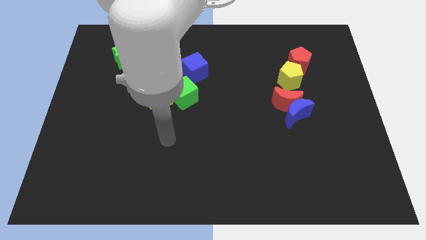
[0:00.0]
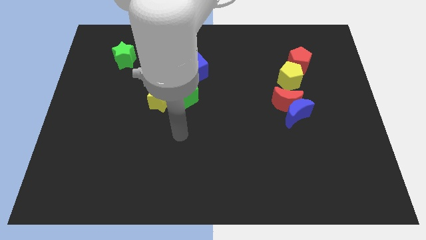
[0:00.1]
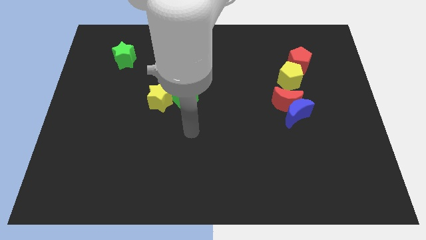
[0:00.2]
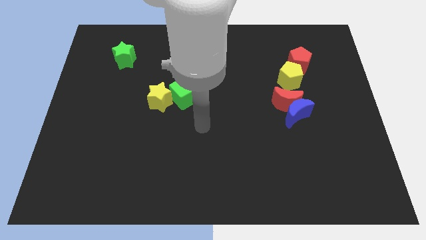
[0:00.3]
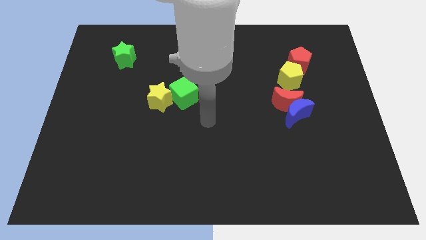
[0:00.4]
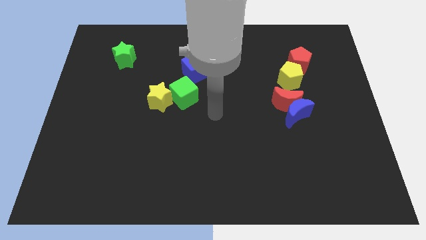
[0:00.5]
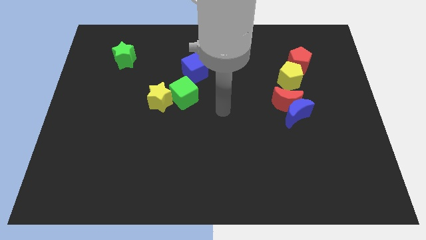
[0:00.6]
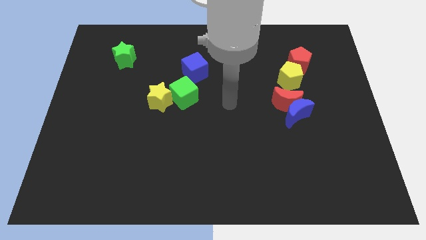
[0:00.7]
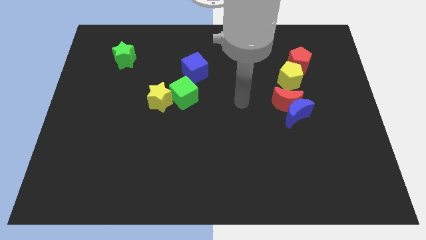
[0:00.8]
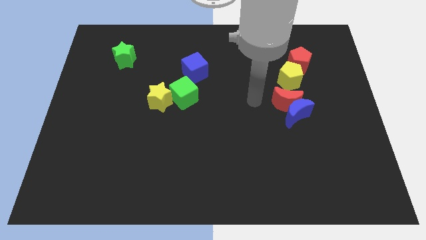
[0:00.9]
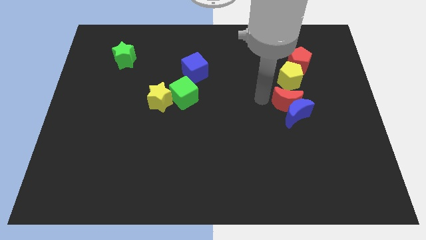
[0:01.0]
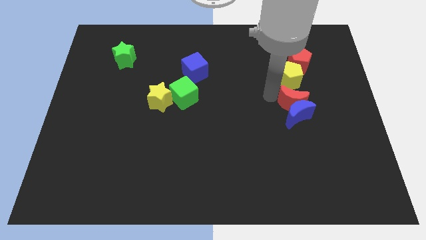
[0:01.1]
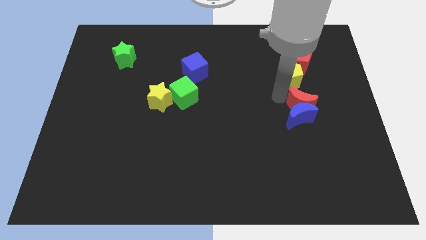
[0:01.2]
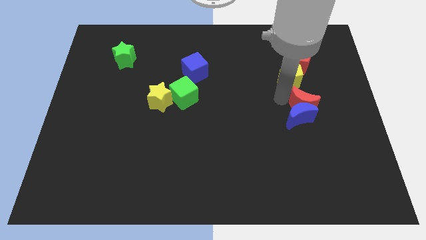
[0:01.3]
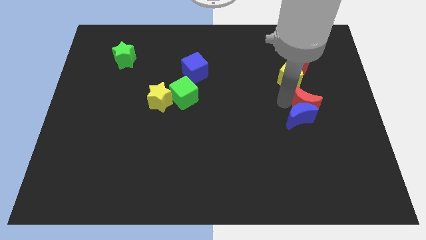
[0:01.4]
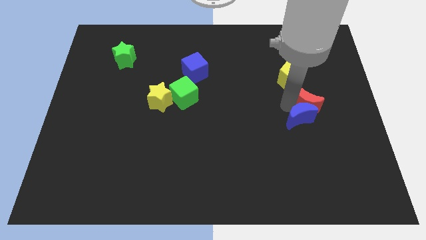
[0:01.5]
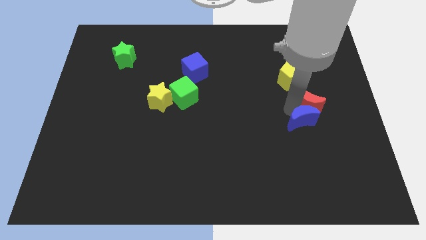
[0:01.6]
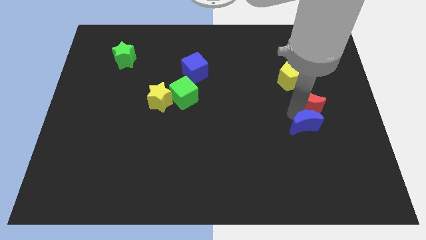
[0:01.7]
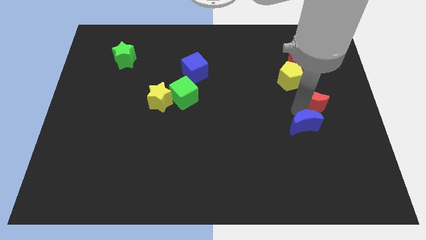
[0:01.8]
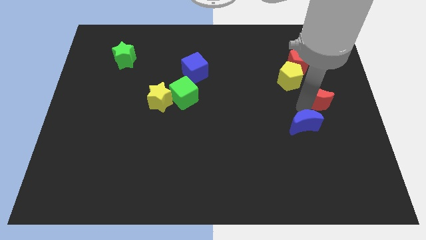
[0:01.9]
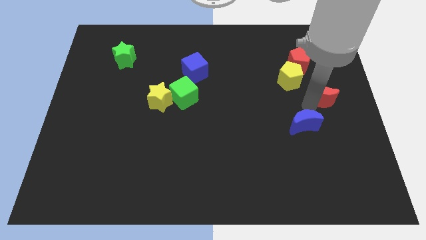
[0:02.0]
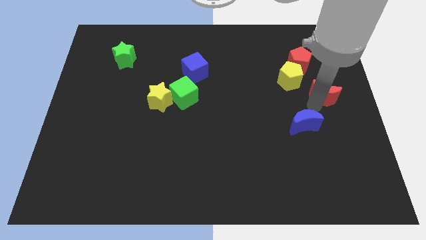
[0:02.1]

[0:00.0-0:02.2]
pull the blue moon apart from the red moon

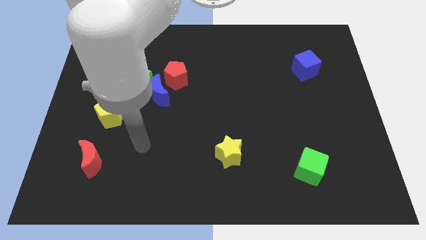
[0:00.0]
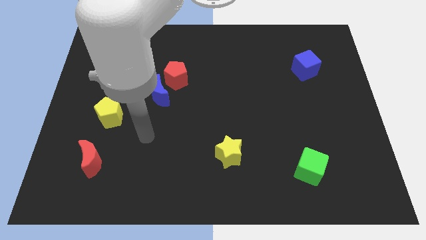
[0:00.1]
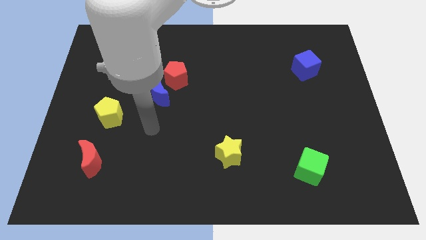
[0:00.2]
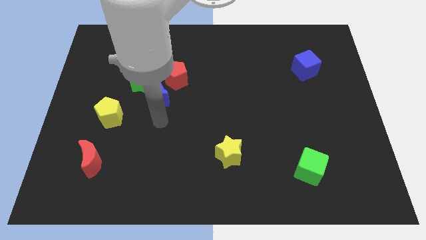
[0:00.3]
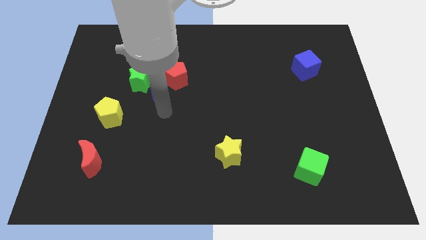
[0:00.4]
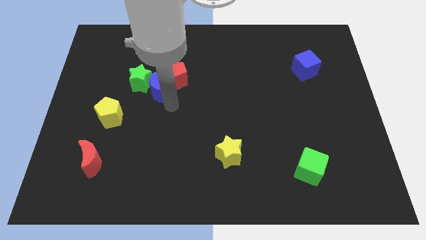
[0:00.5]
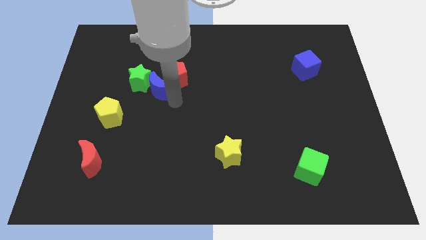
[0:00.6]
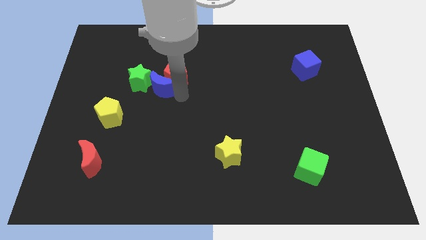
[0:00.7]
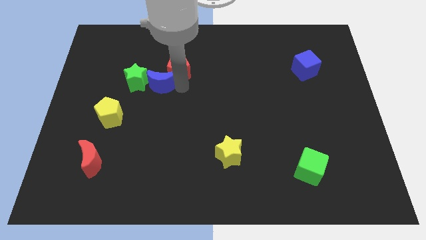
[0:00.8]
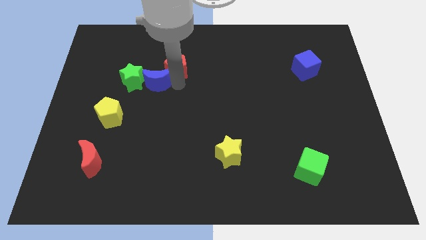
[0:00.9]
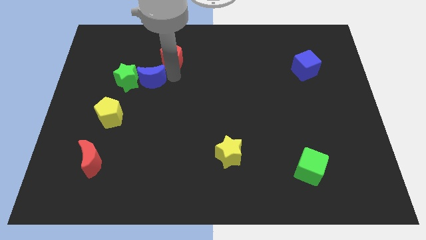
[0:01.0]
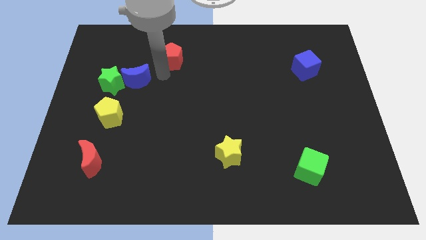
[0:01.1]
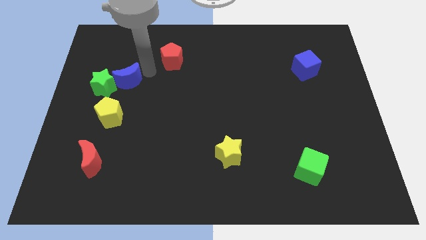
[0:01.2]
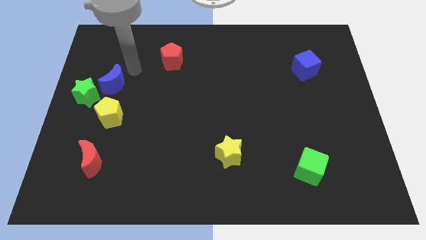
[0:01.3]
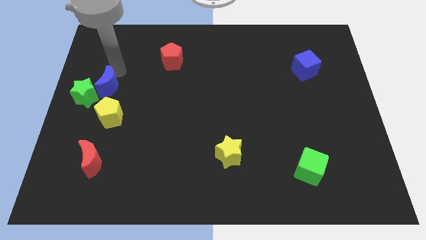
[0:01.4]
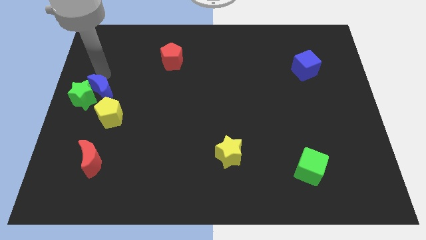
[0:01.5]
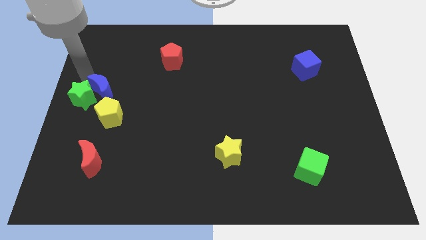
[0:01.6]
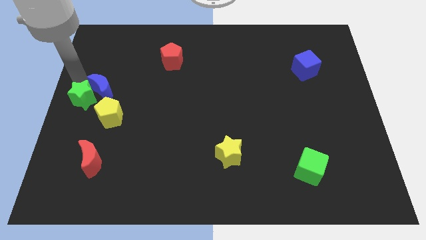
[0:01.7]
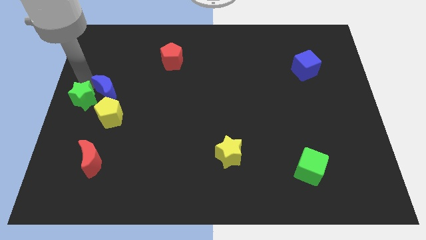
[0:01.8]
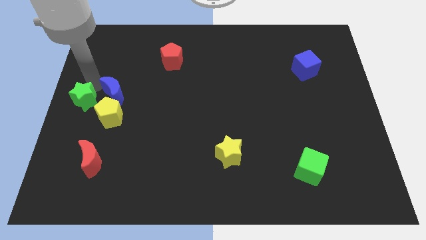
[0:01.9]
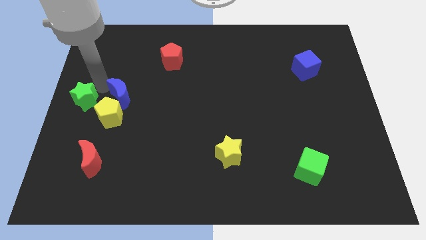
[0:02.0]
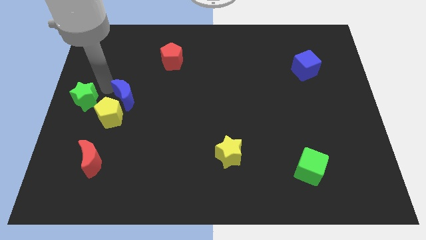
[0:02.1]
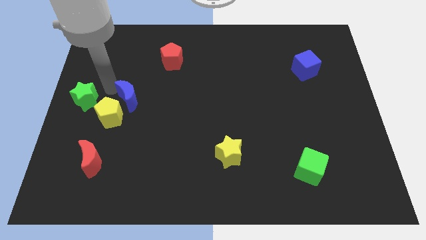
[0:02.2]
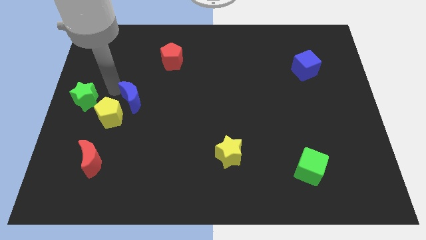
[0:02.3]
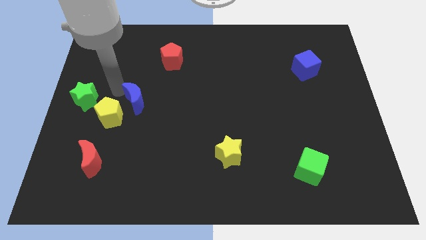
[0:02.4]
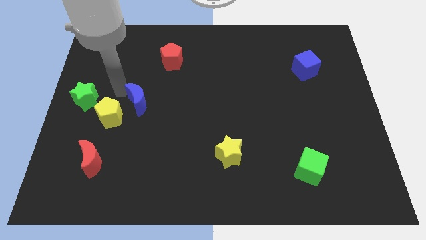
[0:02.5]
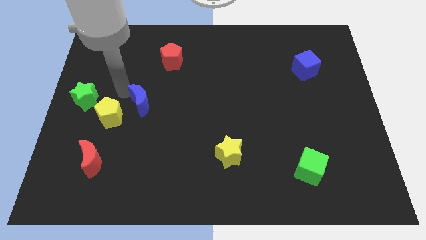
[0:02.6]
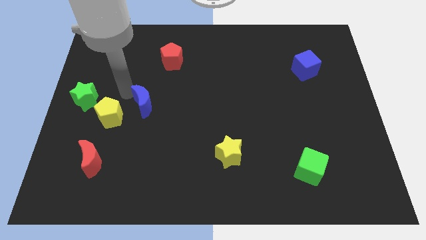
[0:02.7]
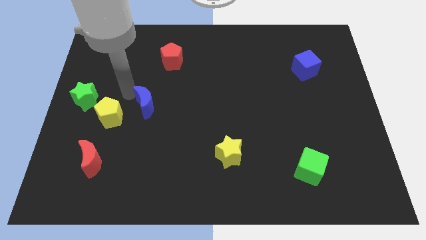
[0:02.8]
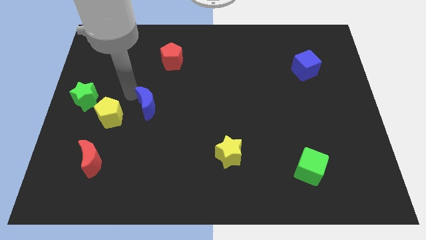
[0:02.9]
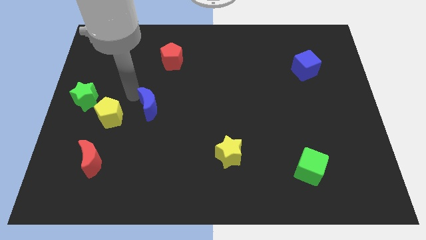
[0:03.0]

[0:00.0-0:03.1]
pull the blue moon apart from the green star and red pentagon

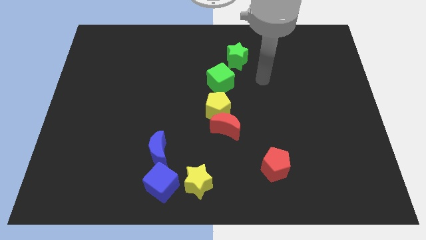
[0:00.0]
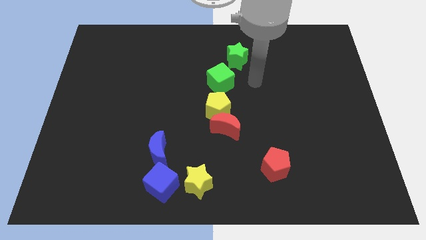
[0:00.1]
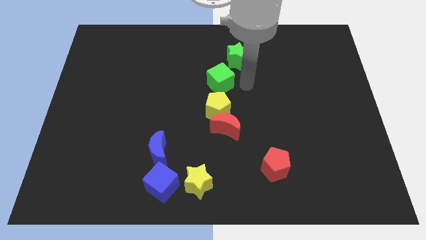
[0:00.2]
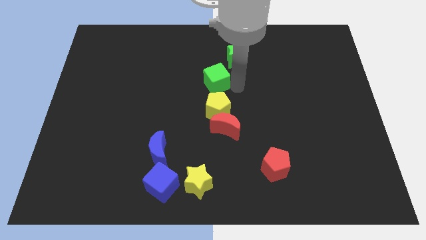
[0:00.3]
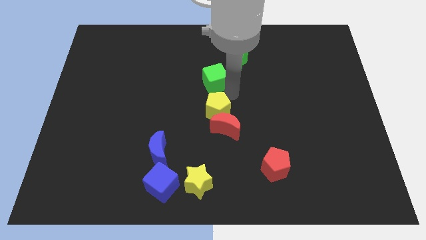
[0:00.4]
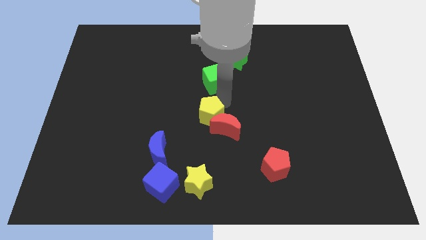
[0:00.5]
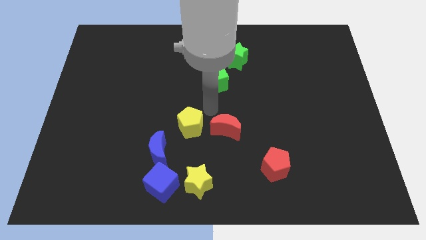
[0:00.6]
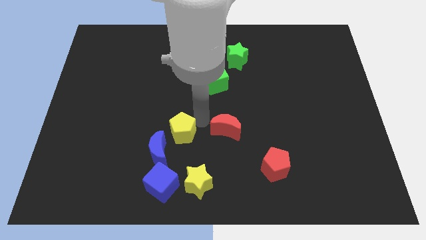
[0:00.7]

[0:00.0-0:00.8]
pull the red moon apart from the yellow pentagon

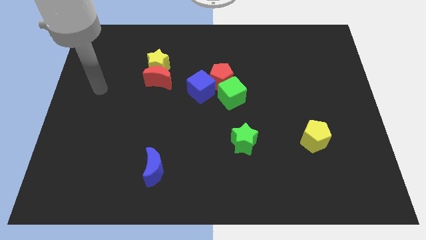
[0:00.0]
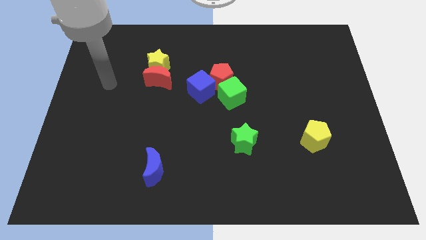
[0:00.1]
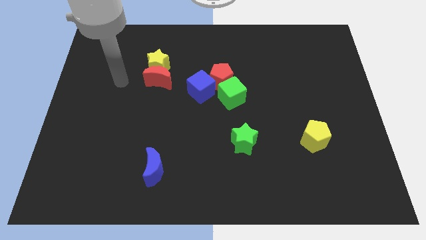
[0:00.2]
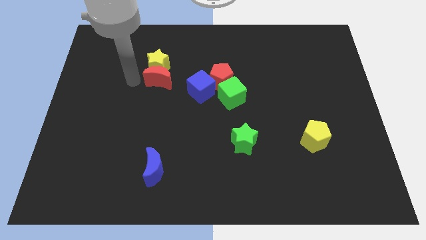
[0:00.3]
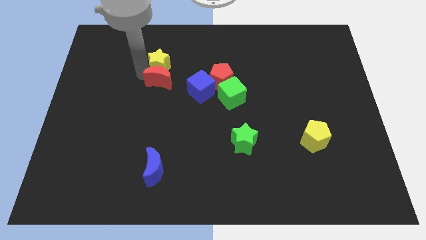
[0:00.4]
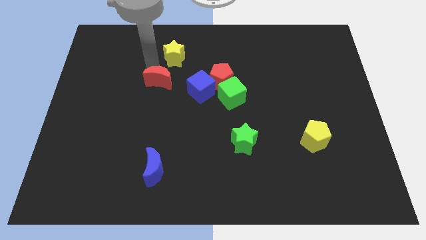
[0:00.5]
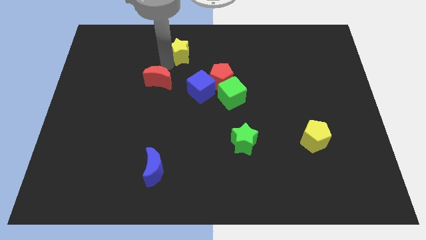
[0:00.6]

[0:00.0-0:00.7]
pull the red moon apart from the yellow star

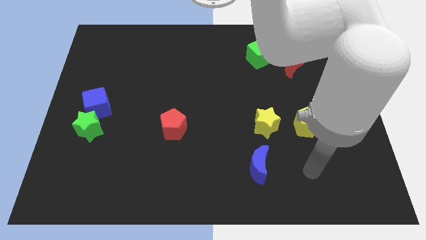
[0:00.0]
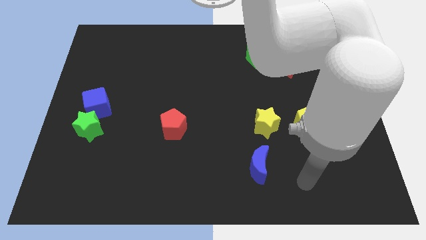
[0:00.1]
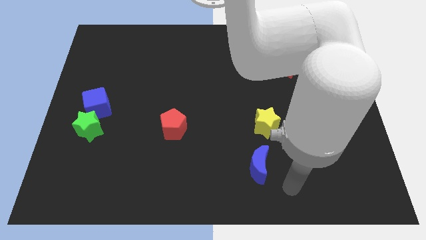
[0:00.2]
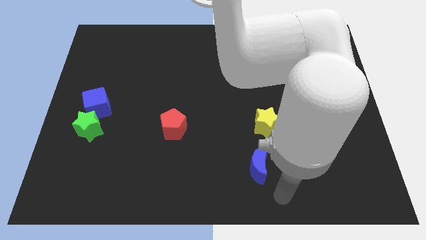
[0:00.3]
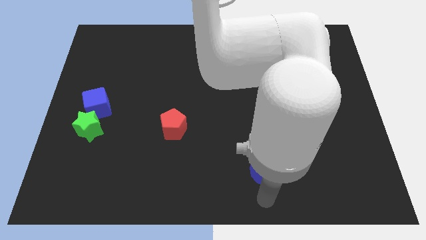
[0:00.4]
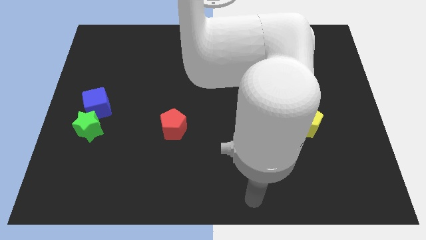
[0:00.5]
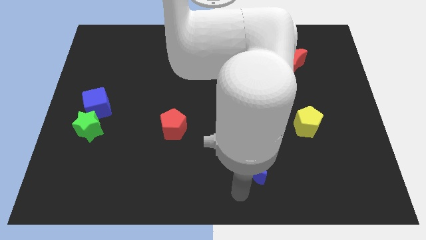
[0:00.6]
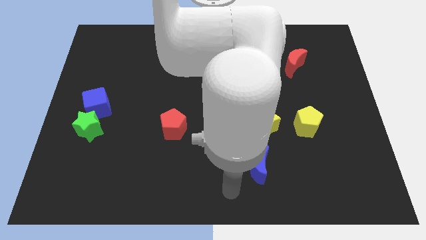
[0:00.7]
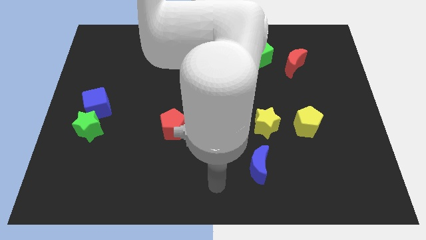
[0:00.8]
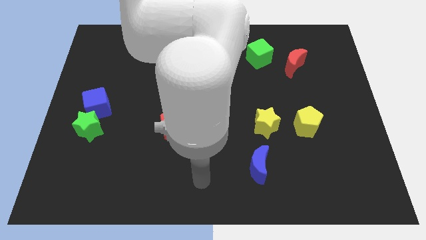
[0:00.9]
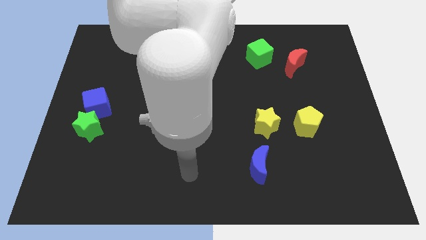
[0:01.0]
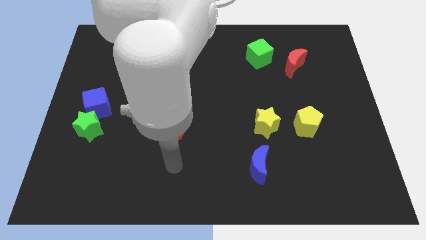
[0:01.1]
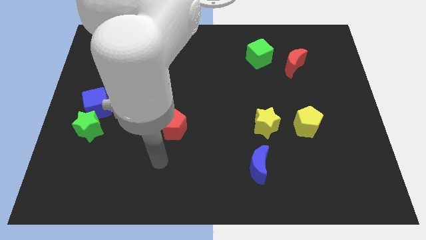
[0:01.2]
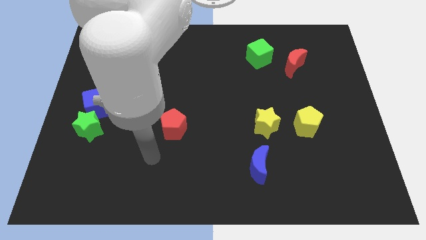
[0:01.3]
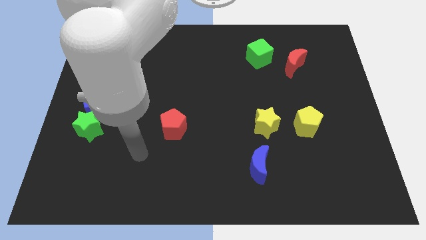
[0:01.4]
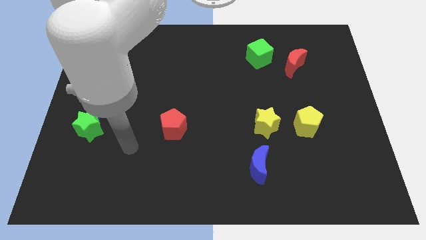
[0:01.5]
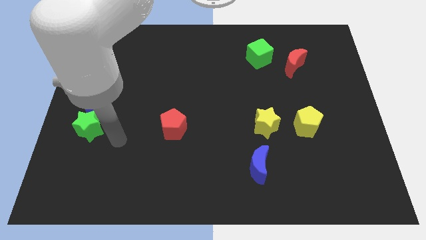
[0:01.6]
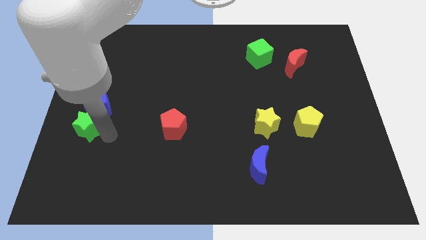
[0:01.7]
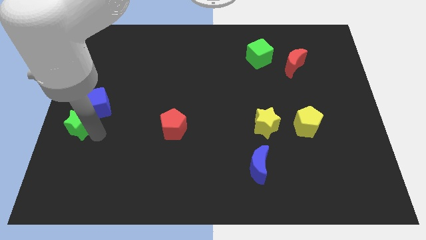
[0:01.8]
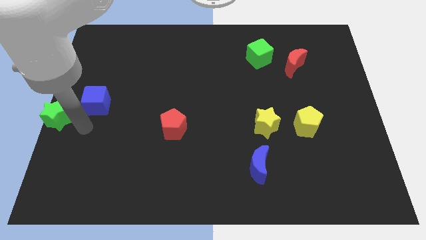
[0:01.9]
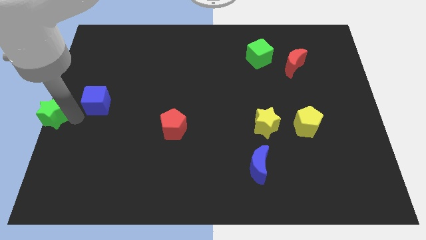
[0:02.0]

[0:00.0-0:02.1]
separate the blue cube from the green star

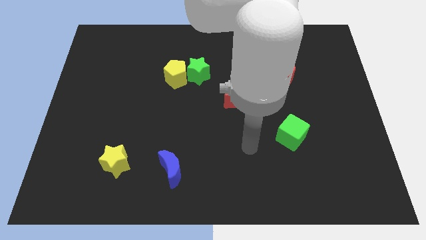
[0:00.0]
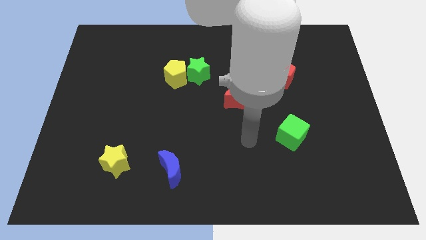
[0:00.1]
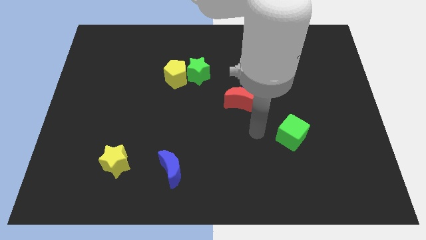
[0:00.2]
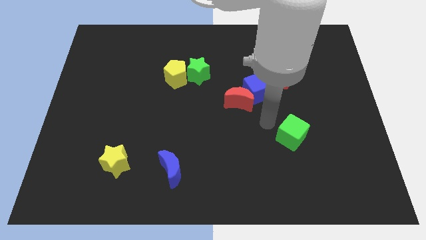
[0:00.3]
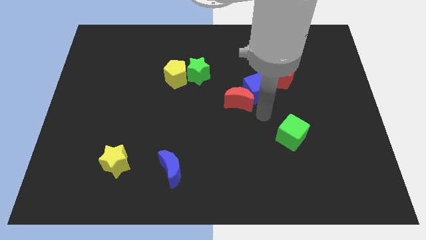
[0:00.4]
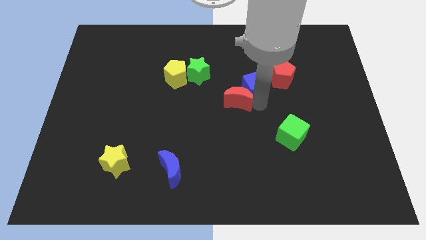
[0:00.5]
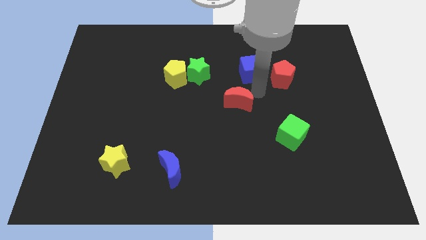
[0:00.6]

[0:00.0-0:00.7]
pull the red moon apart from the blue cube
